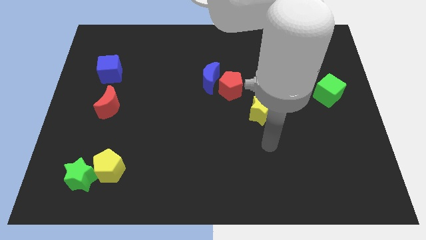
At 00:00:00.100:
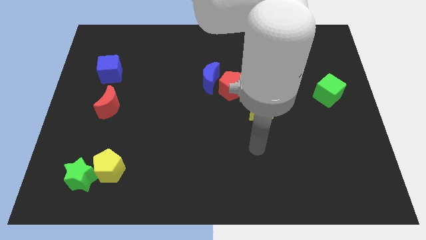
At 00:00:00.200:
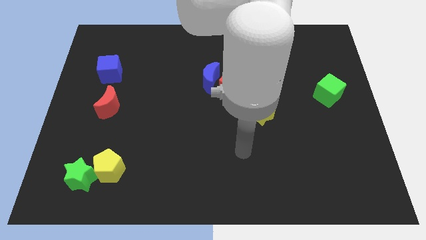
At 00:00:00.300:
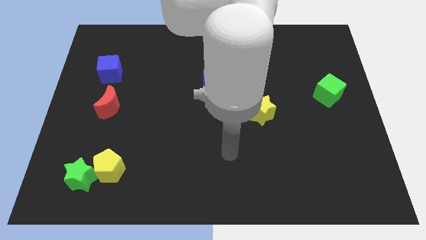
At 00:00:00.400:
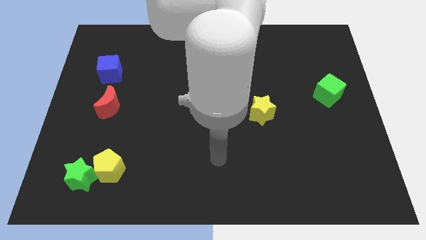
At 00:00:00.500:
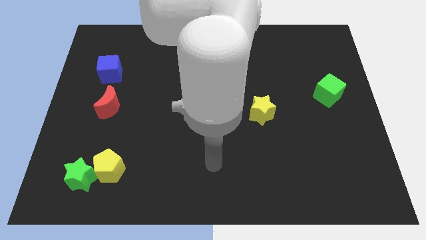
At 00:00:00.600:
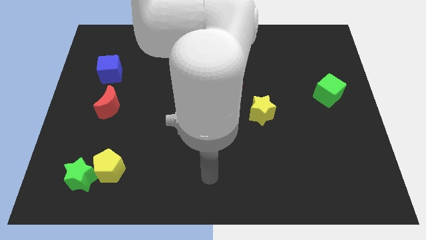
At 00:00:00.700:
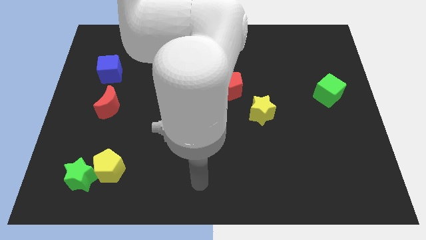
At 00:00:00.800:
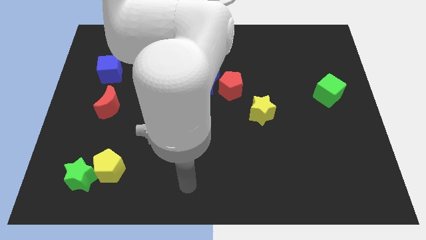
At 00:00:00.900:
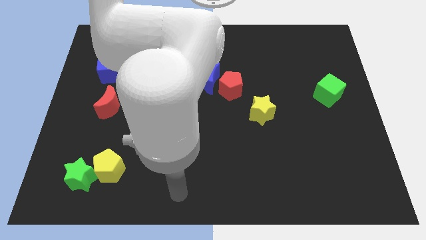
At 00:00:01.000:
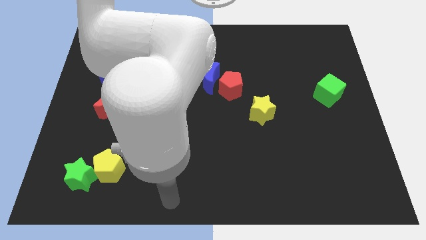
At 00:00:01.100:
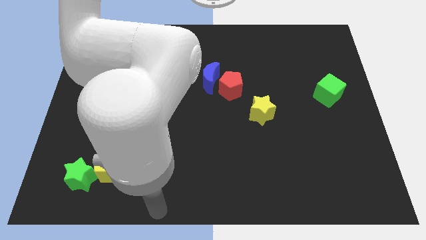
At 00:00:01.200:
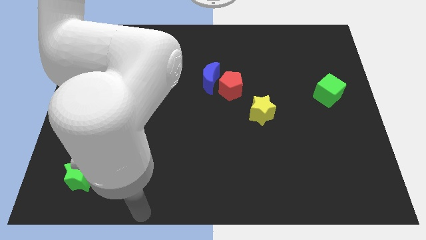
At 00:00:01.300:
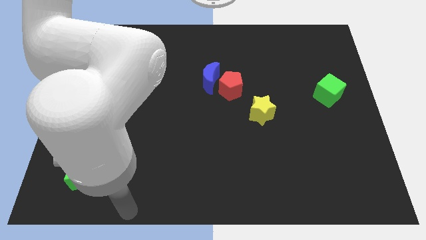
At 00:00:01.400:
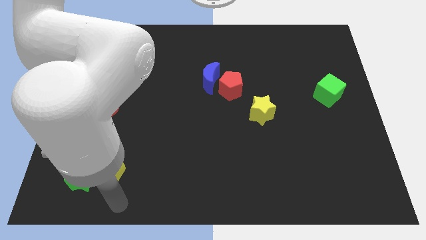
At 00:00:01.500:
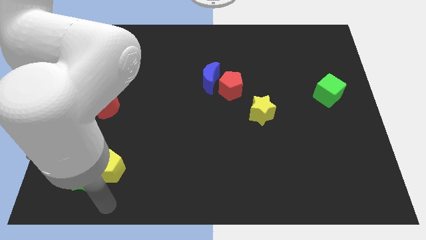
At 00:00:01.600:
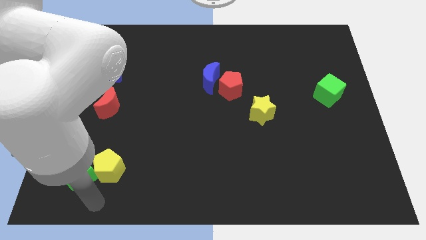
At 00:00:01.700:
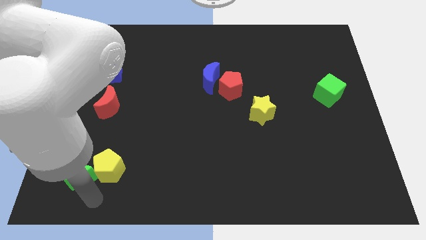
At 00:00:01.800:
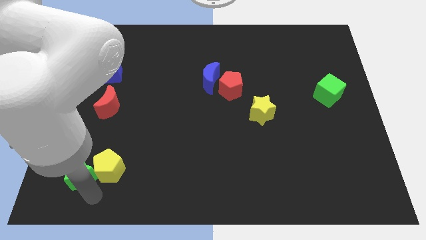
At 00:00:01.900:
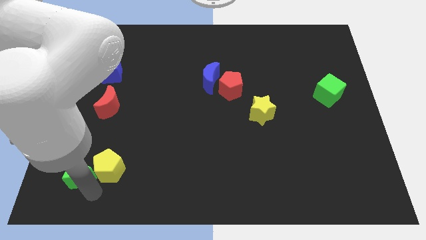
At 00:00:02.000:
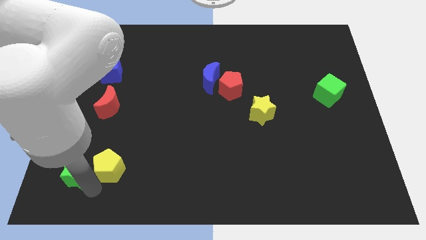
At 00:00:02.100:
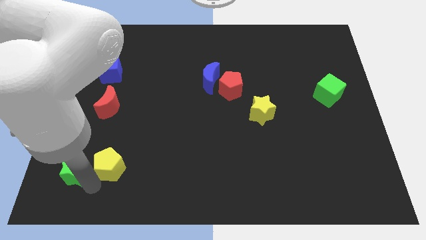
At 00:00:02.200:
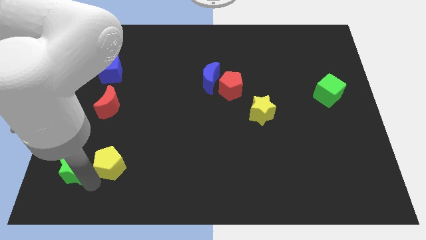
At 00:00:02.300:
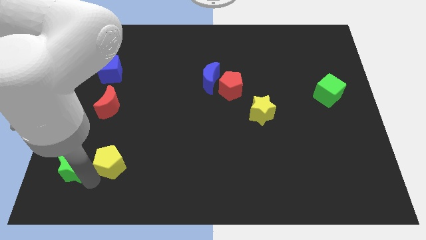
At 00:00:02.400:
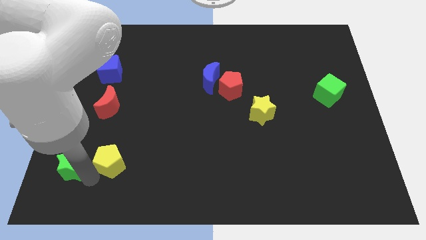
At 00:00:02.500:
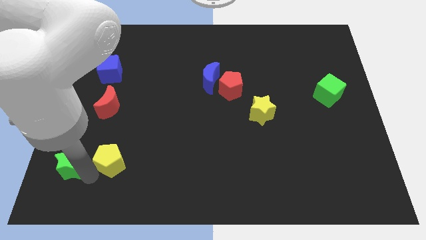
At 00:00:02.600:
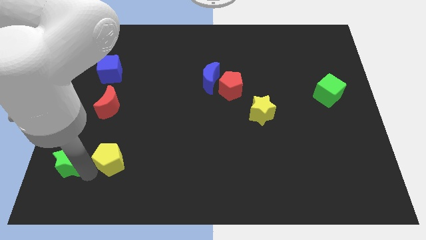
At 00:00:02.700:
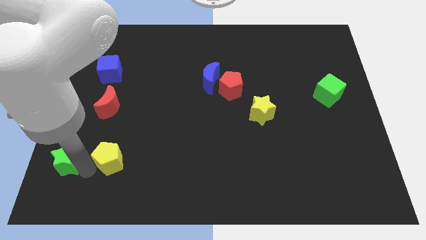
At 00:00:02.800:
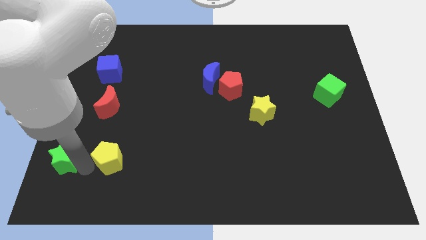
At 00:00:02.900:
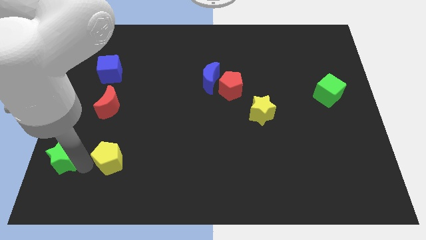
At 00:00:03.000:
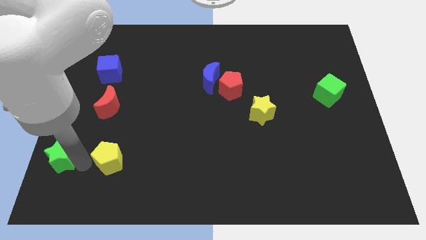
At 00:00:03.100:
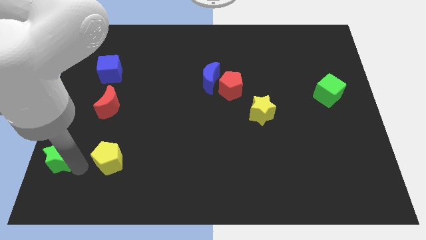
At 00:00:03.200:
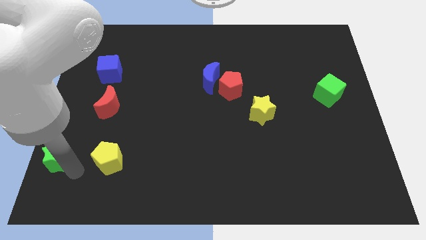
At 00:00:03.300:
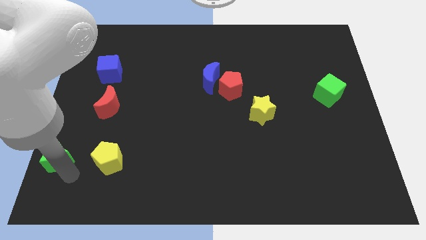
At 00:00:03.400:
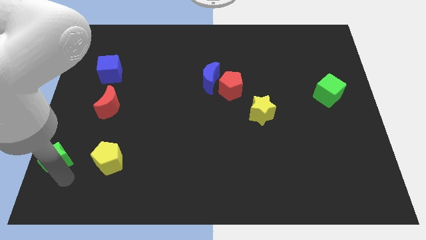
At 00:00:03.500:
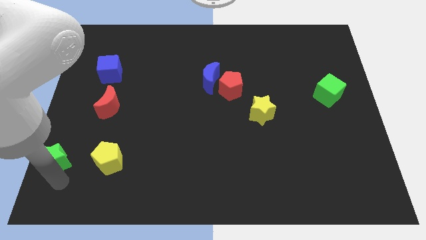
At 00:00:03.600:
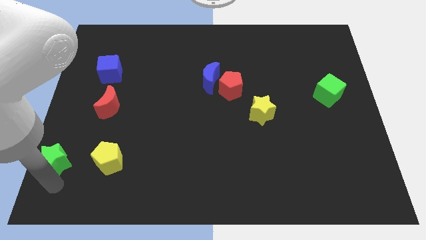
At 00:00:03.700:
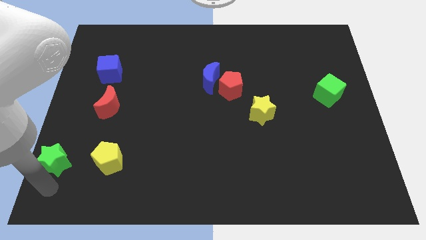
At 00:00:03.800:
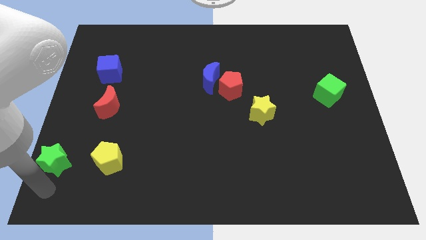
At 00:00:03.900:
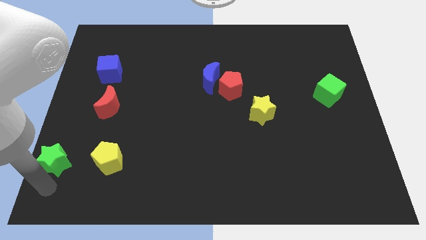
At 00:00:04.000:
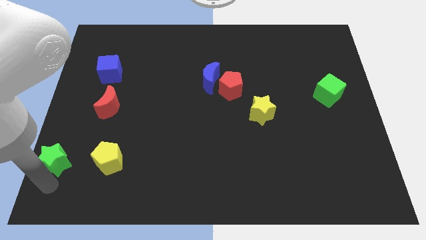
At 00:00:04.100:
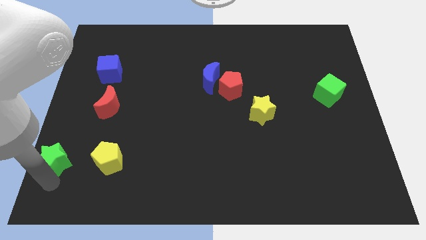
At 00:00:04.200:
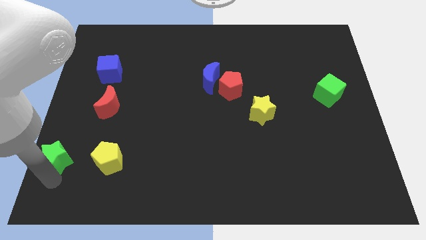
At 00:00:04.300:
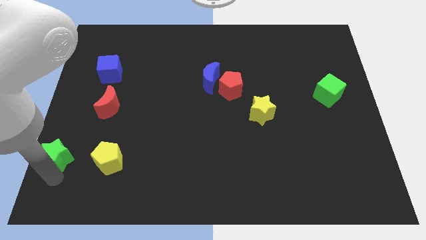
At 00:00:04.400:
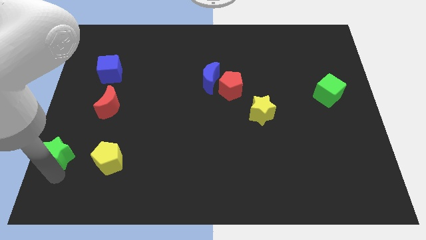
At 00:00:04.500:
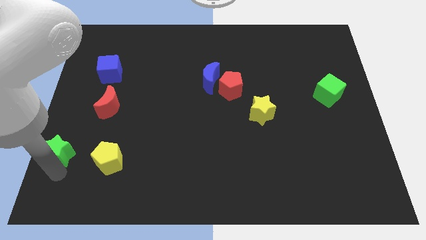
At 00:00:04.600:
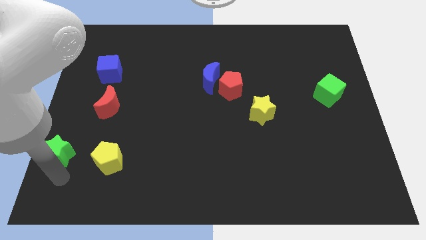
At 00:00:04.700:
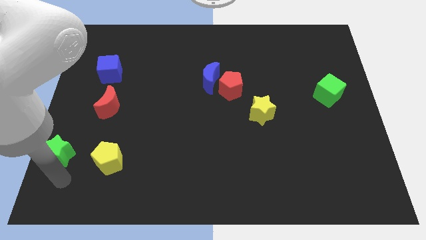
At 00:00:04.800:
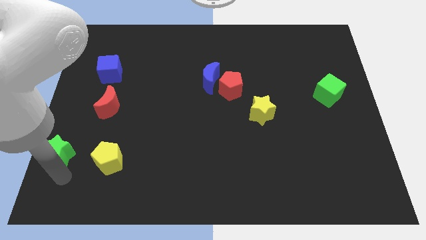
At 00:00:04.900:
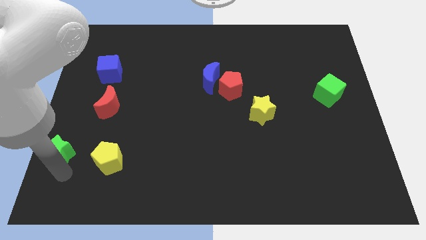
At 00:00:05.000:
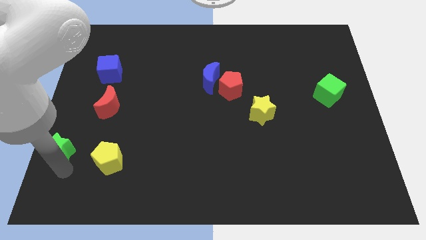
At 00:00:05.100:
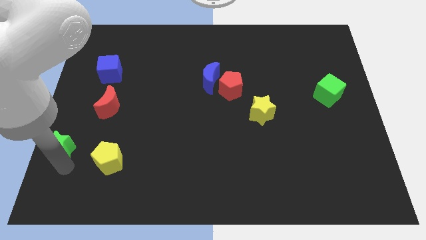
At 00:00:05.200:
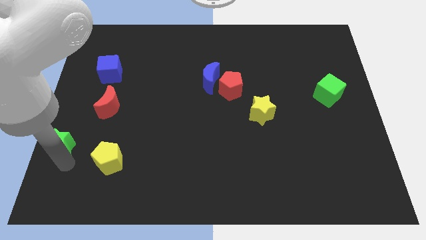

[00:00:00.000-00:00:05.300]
push the green star to the center left

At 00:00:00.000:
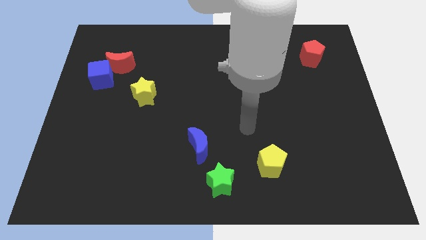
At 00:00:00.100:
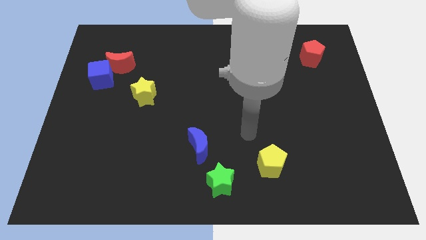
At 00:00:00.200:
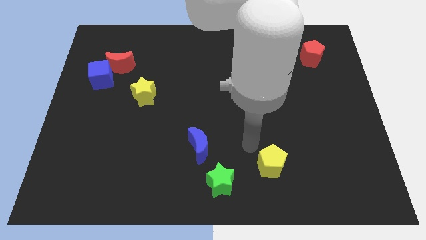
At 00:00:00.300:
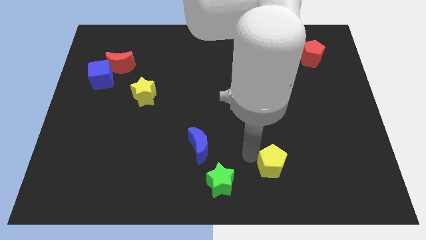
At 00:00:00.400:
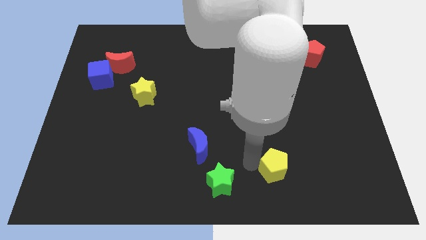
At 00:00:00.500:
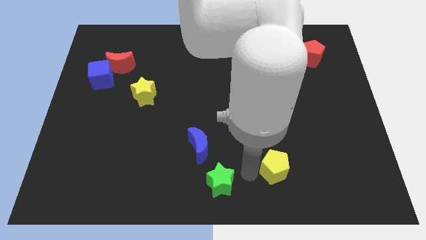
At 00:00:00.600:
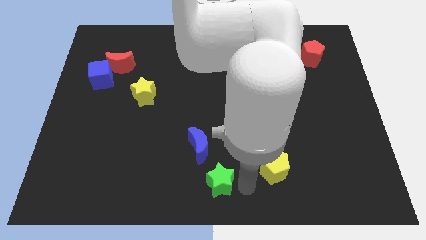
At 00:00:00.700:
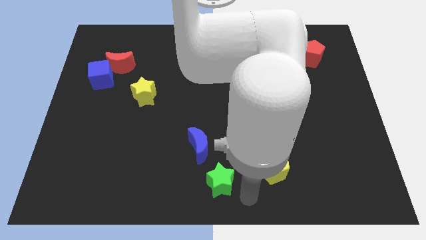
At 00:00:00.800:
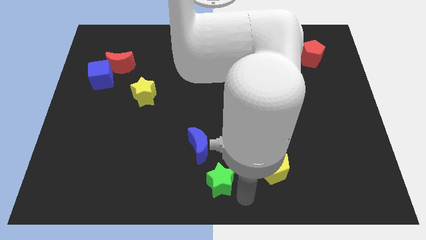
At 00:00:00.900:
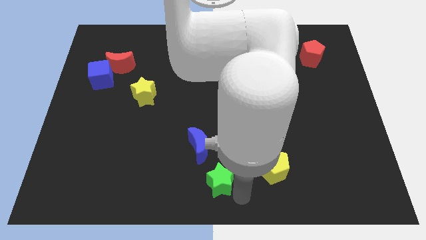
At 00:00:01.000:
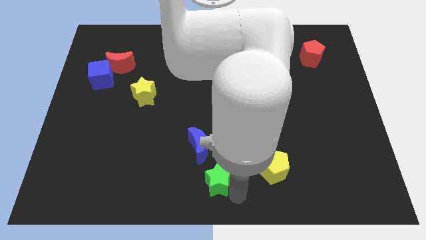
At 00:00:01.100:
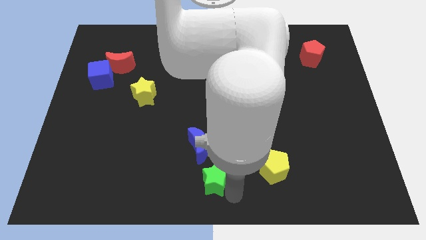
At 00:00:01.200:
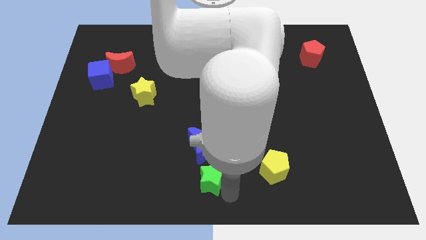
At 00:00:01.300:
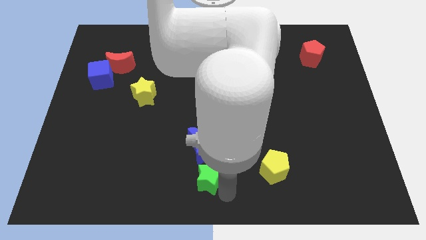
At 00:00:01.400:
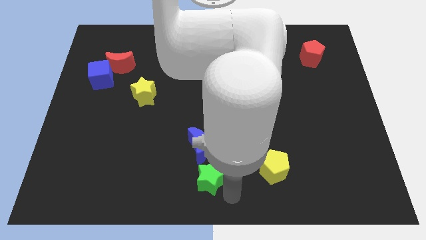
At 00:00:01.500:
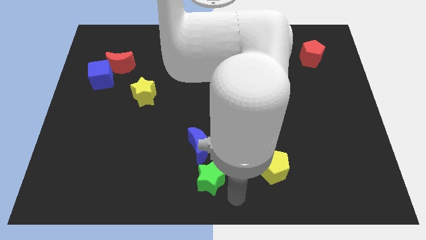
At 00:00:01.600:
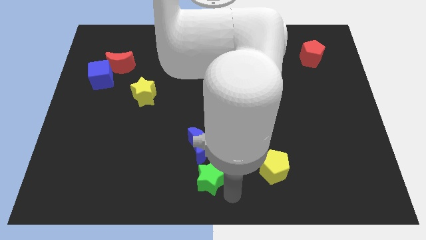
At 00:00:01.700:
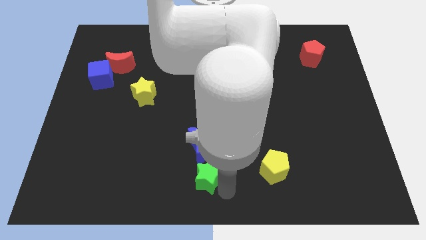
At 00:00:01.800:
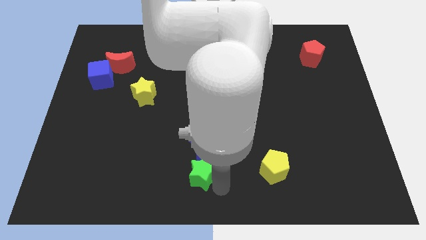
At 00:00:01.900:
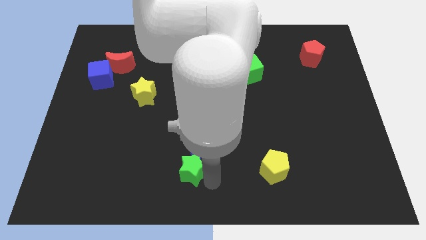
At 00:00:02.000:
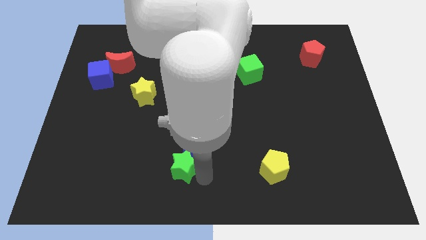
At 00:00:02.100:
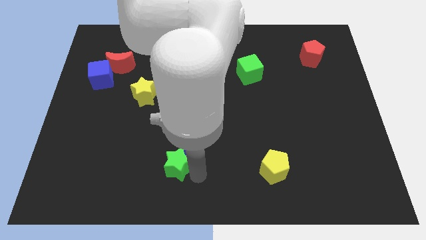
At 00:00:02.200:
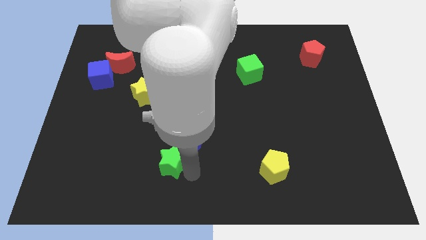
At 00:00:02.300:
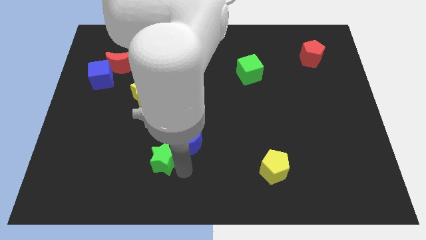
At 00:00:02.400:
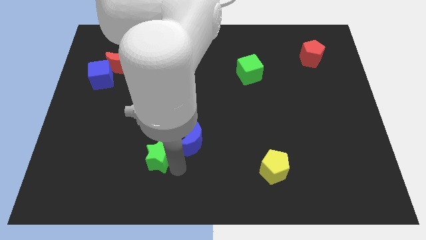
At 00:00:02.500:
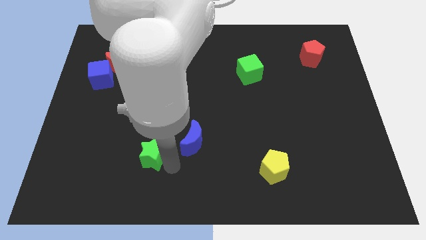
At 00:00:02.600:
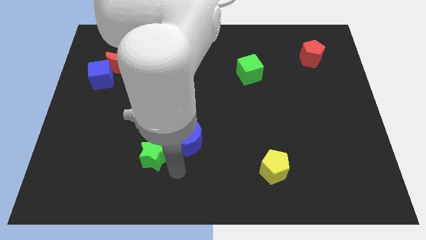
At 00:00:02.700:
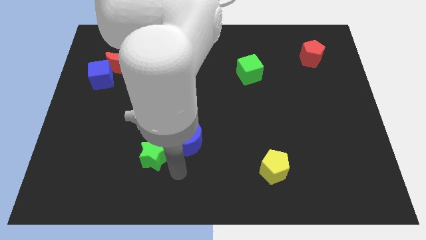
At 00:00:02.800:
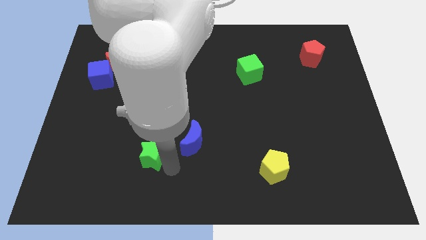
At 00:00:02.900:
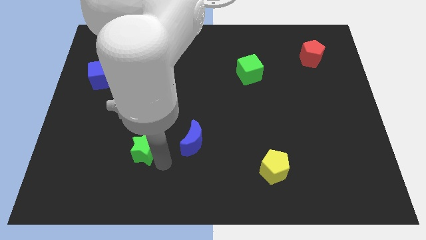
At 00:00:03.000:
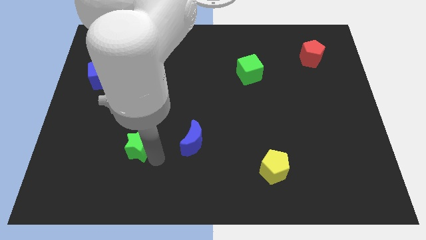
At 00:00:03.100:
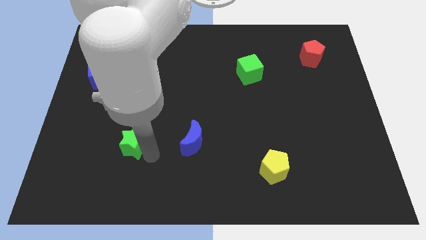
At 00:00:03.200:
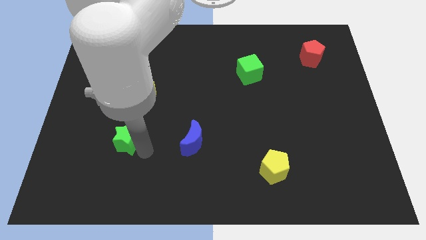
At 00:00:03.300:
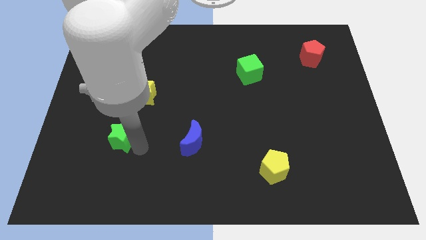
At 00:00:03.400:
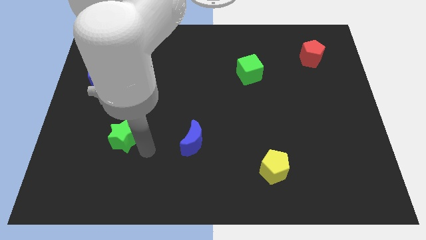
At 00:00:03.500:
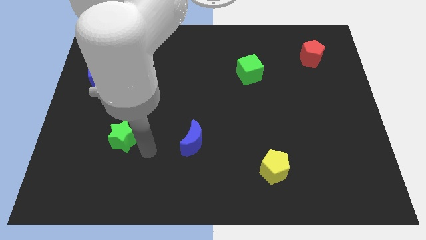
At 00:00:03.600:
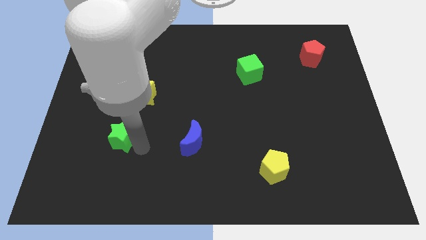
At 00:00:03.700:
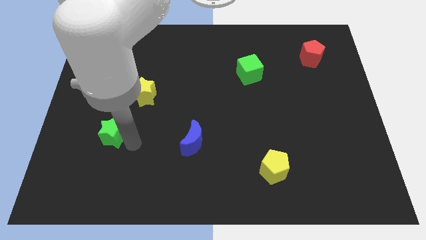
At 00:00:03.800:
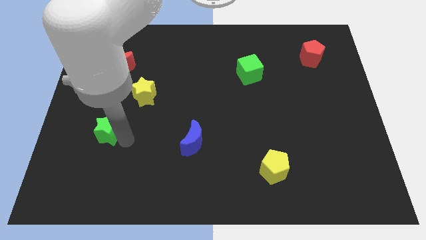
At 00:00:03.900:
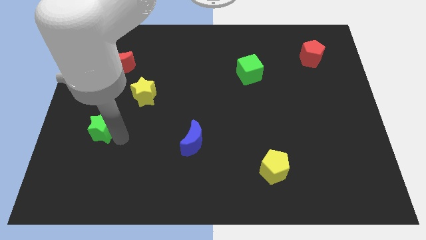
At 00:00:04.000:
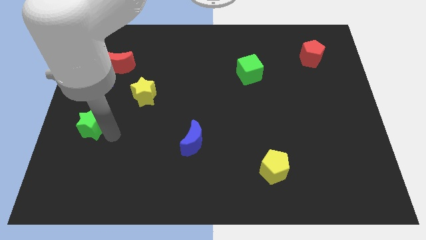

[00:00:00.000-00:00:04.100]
slide the green star to the center left
